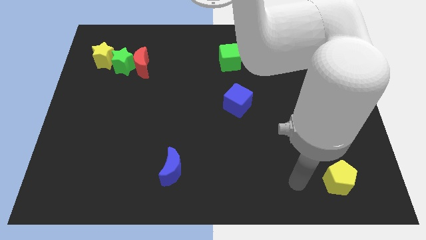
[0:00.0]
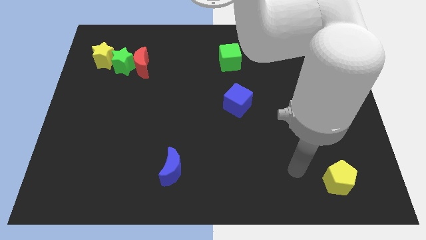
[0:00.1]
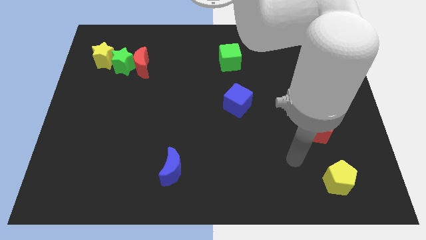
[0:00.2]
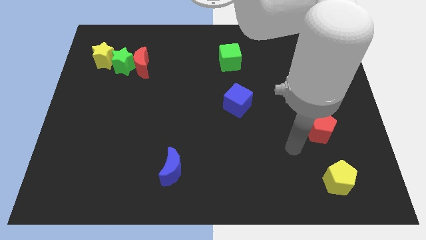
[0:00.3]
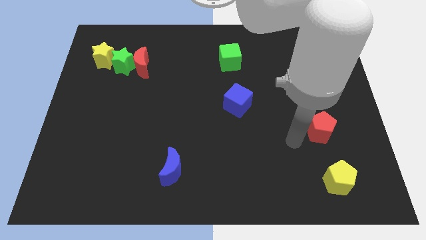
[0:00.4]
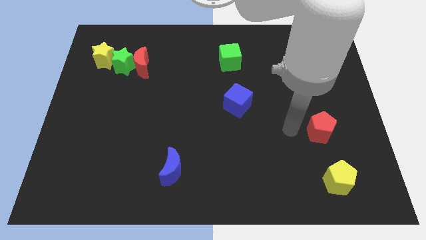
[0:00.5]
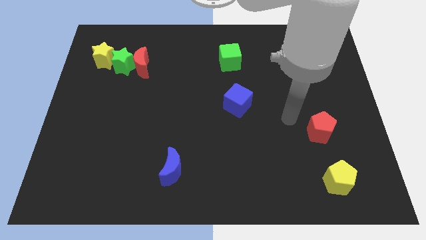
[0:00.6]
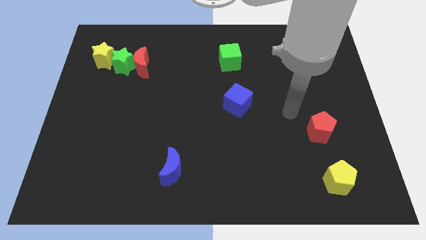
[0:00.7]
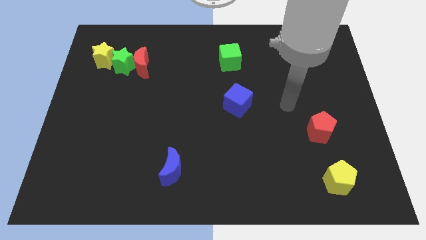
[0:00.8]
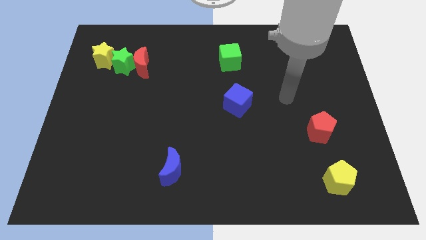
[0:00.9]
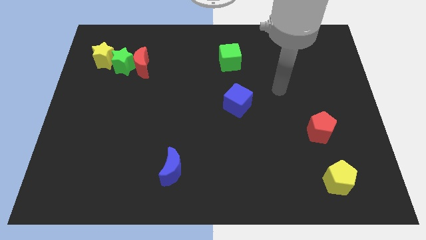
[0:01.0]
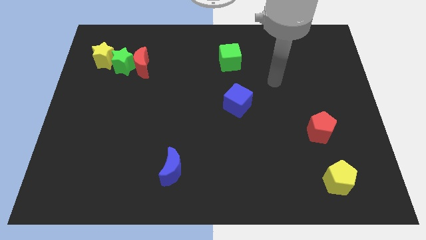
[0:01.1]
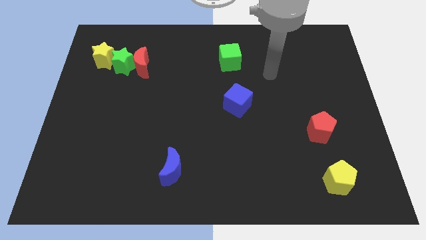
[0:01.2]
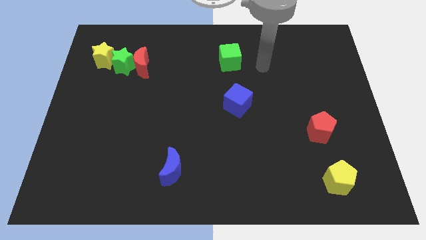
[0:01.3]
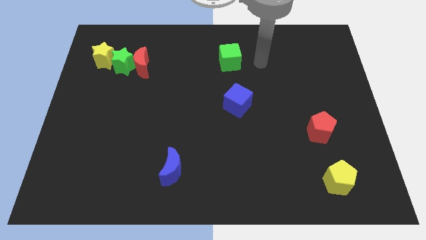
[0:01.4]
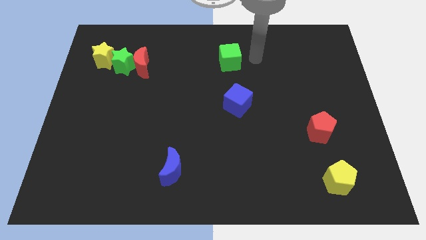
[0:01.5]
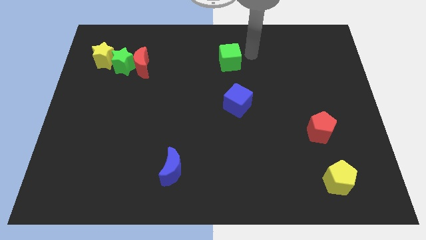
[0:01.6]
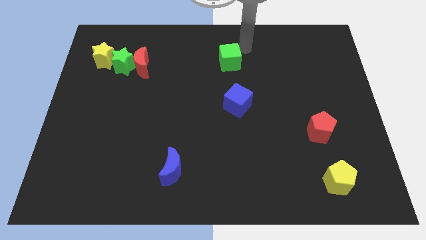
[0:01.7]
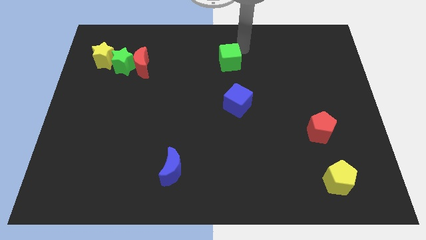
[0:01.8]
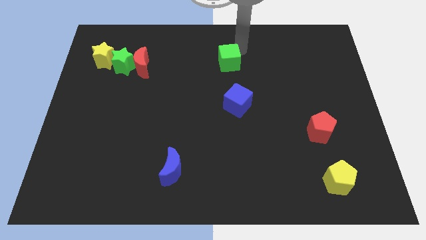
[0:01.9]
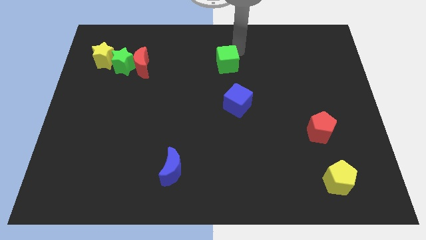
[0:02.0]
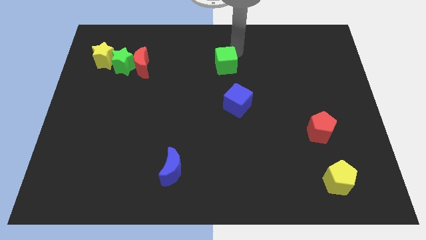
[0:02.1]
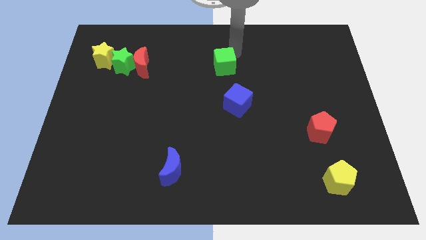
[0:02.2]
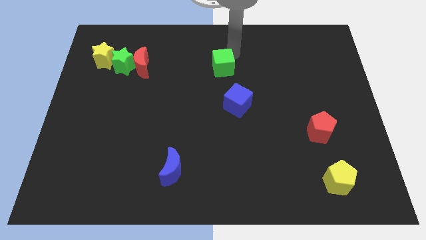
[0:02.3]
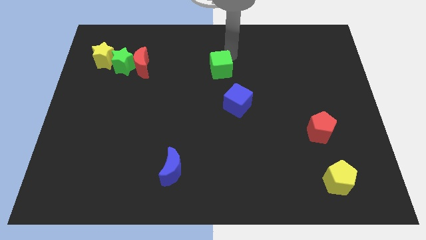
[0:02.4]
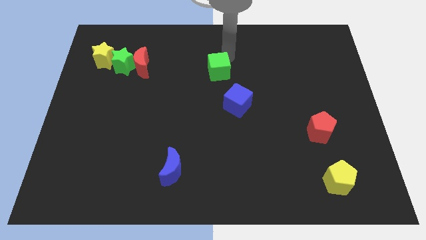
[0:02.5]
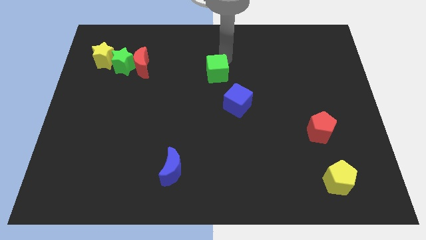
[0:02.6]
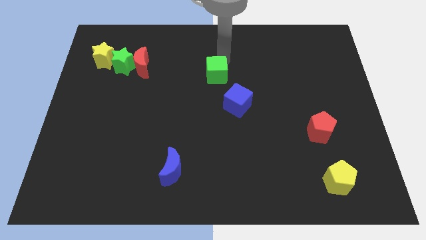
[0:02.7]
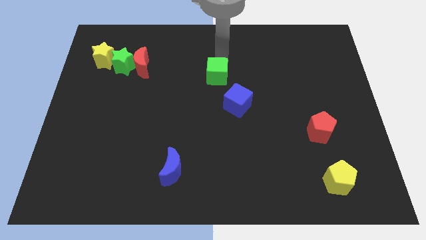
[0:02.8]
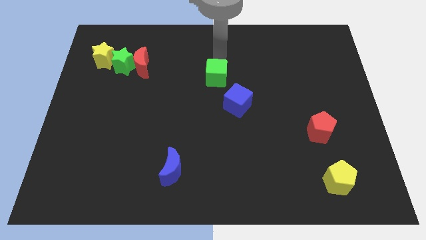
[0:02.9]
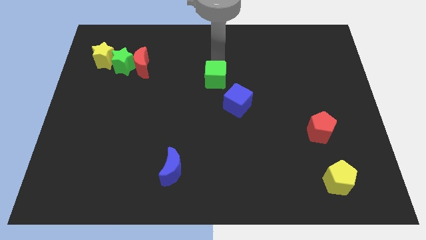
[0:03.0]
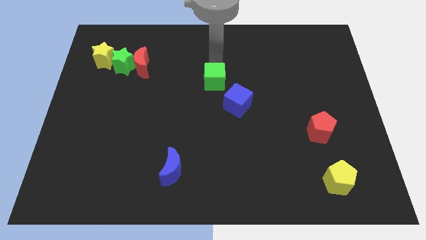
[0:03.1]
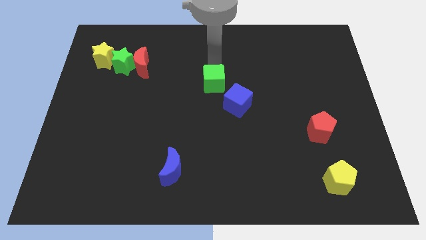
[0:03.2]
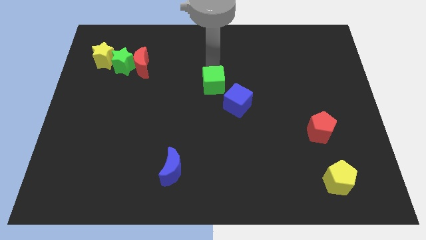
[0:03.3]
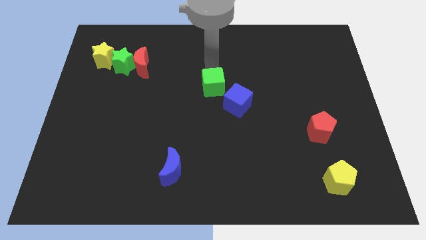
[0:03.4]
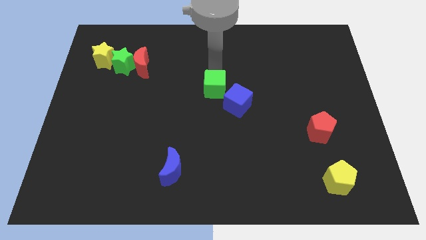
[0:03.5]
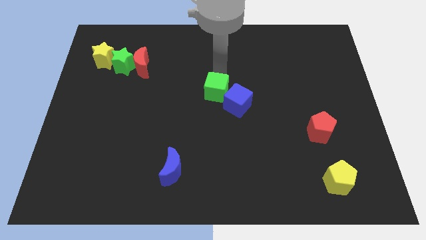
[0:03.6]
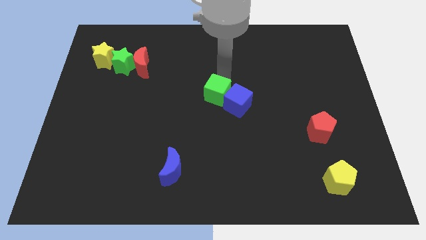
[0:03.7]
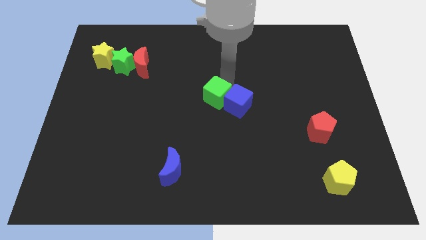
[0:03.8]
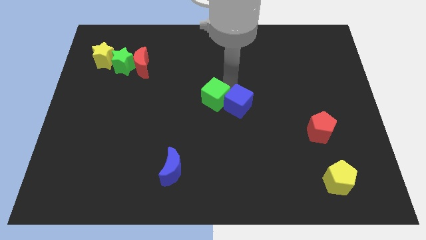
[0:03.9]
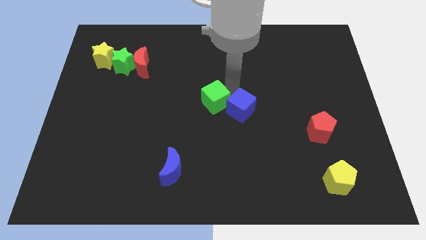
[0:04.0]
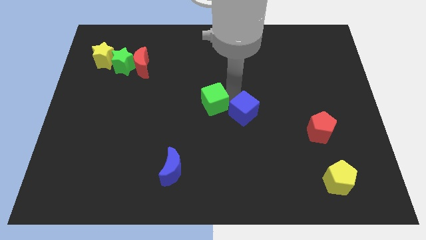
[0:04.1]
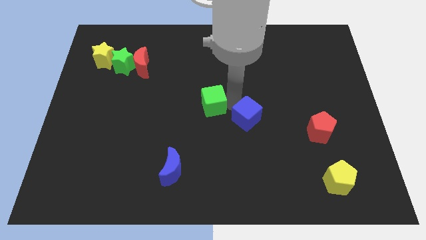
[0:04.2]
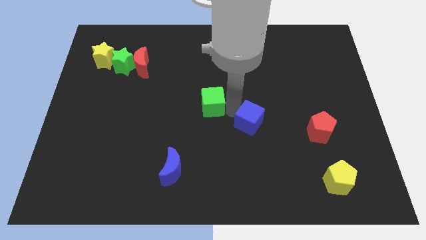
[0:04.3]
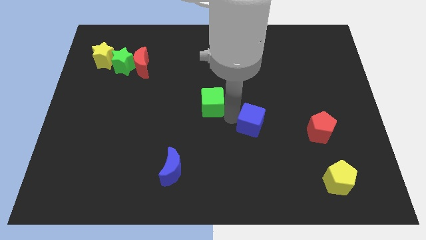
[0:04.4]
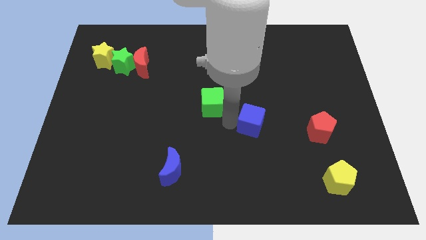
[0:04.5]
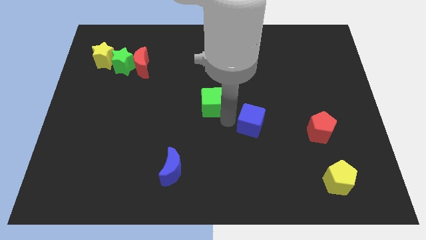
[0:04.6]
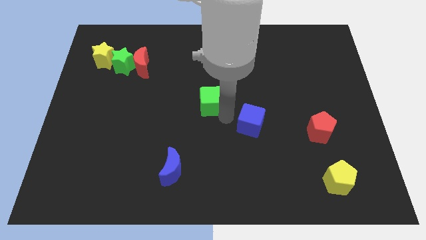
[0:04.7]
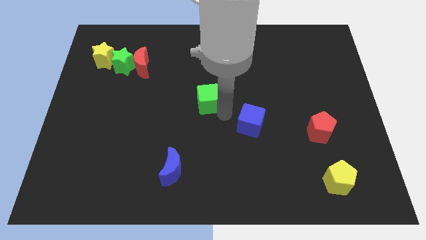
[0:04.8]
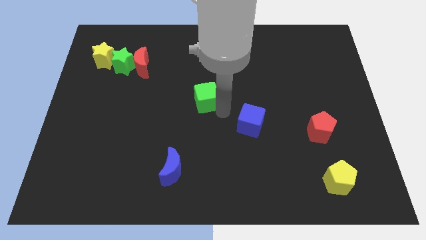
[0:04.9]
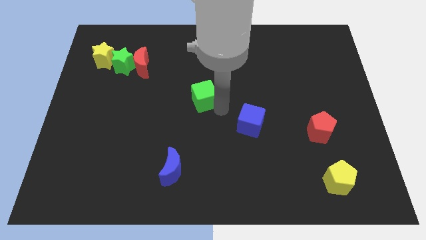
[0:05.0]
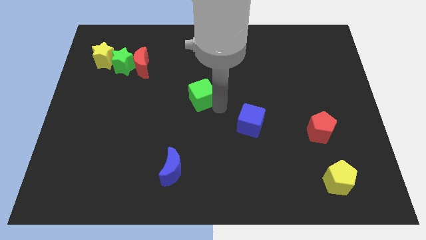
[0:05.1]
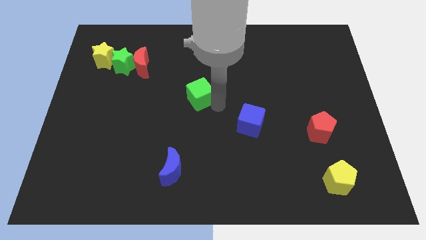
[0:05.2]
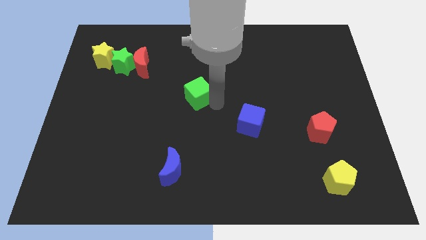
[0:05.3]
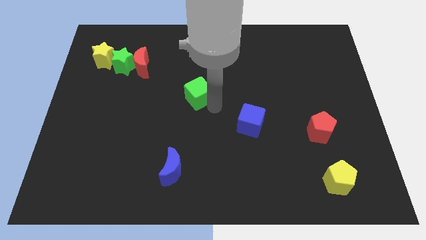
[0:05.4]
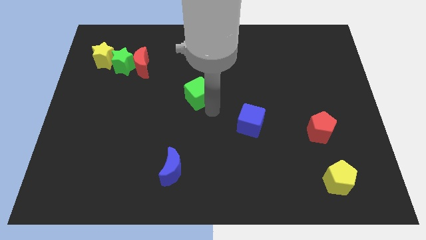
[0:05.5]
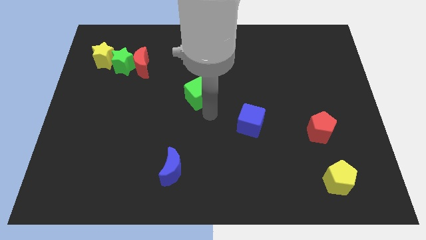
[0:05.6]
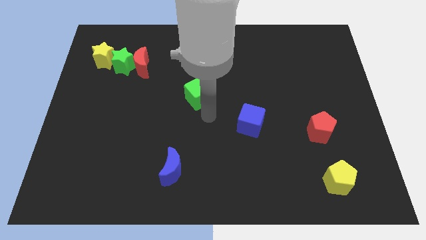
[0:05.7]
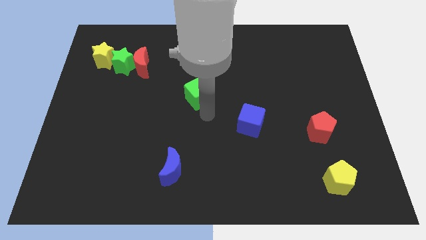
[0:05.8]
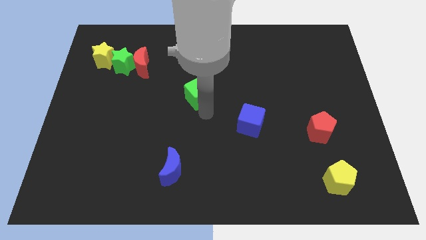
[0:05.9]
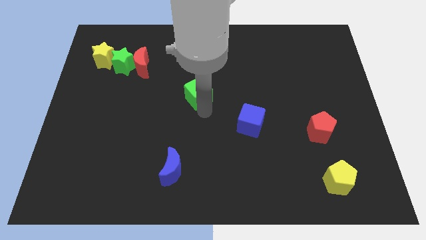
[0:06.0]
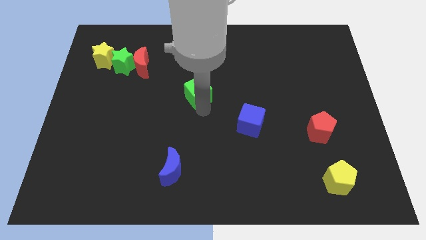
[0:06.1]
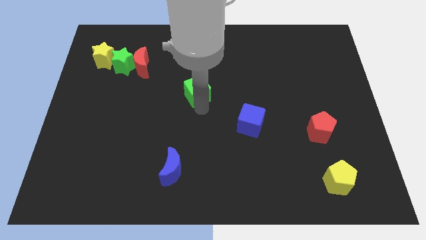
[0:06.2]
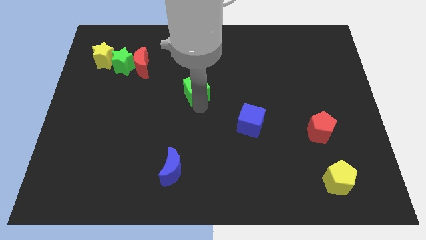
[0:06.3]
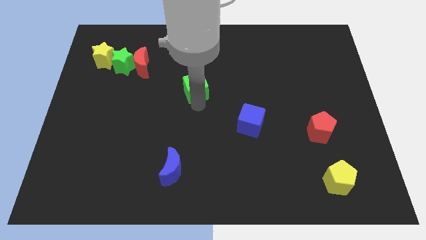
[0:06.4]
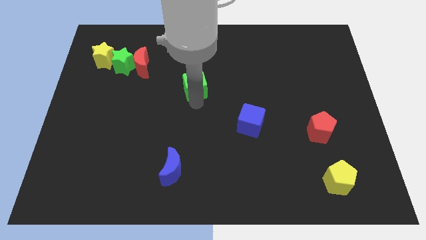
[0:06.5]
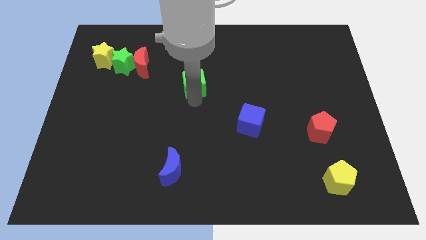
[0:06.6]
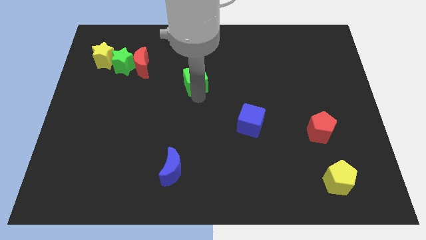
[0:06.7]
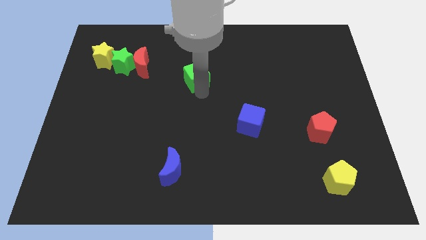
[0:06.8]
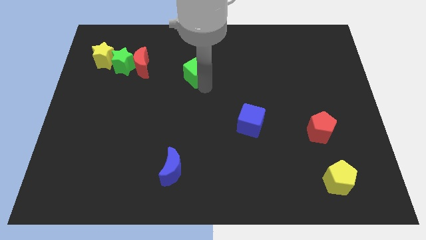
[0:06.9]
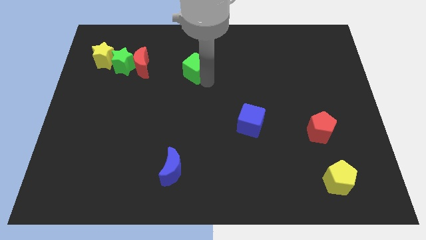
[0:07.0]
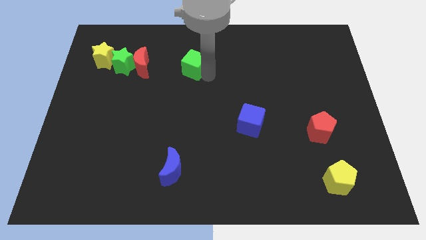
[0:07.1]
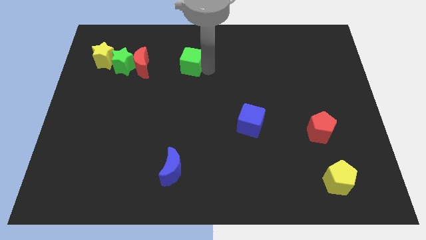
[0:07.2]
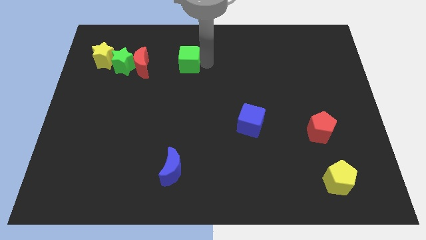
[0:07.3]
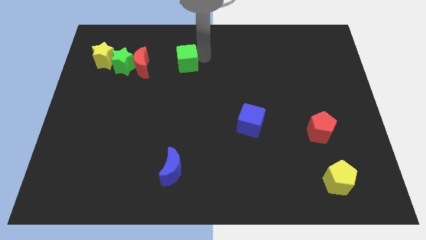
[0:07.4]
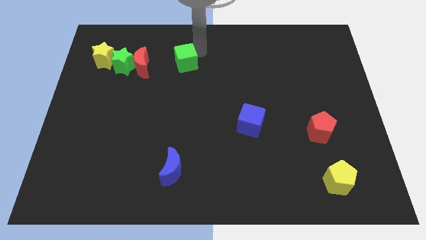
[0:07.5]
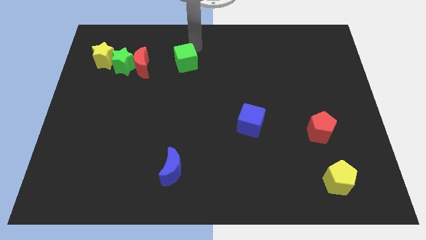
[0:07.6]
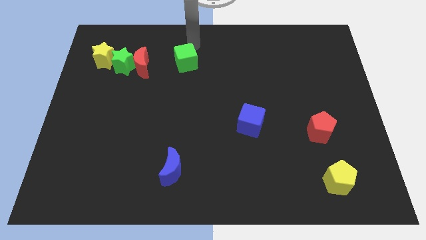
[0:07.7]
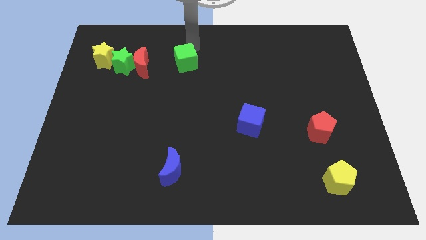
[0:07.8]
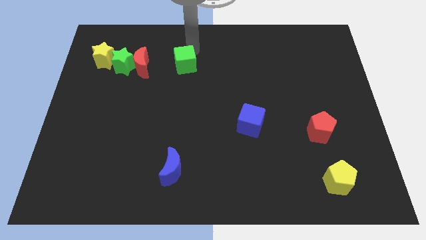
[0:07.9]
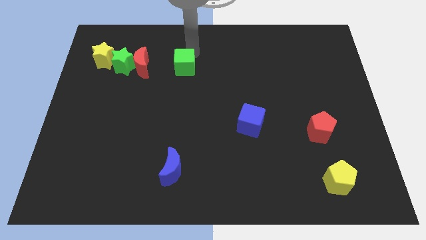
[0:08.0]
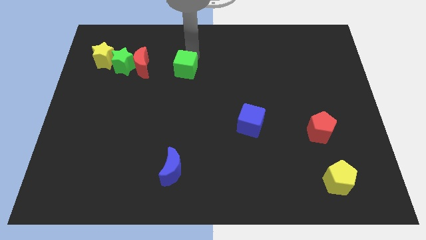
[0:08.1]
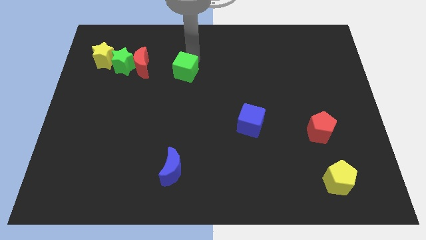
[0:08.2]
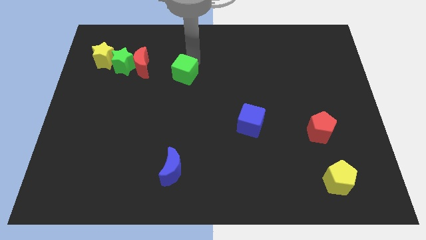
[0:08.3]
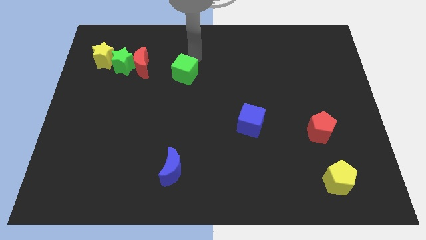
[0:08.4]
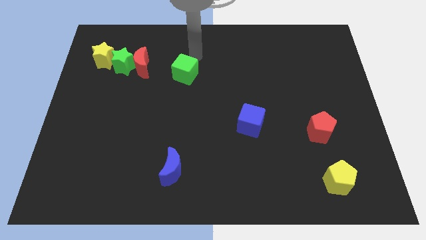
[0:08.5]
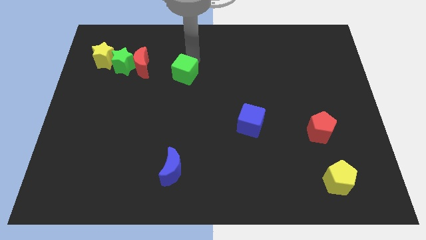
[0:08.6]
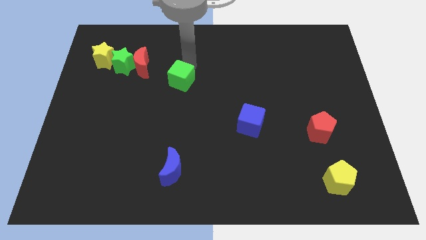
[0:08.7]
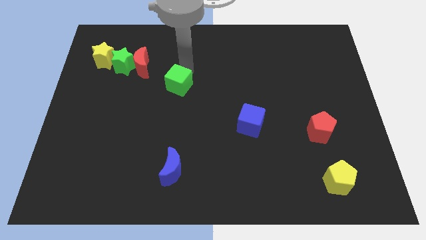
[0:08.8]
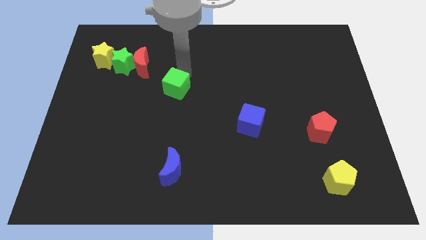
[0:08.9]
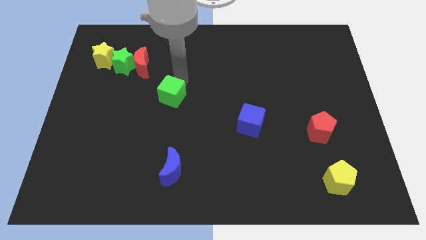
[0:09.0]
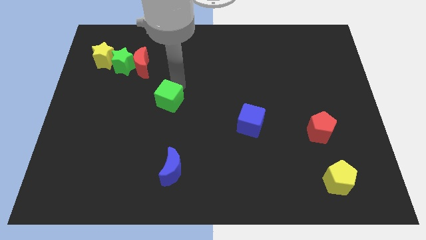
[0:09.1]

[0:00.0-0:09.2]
push the green cube downwards and to the left
